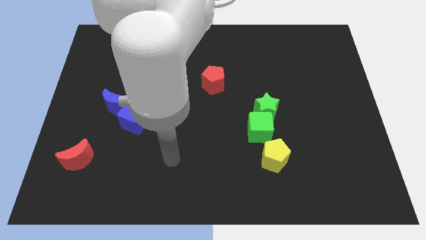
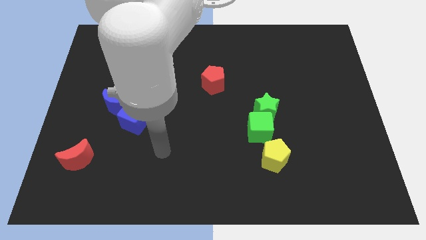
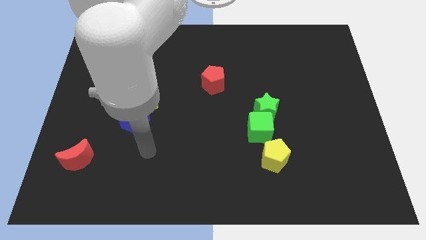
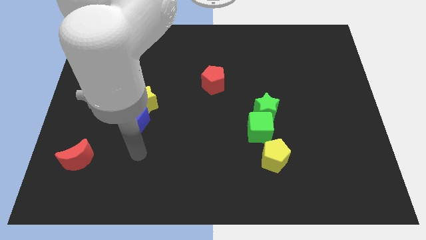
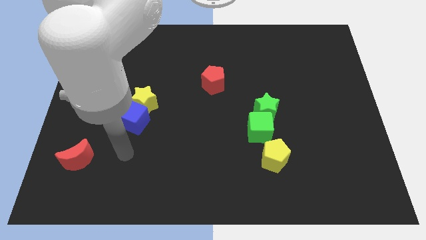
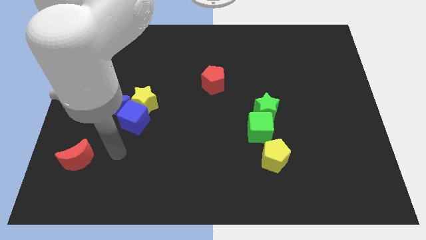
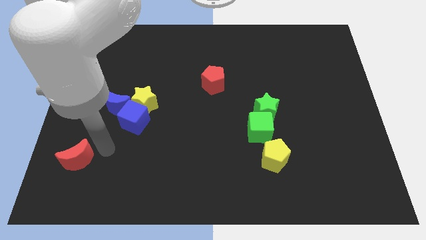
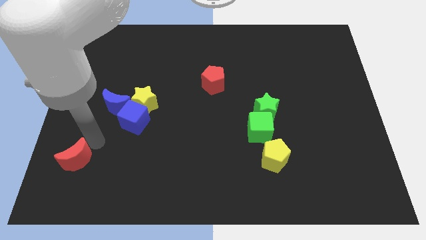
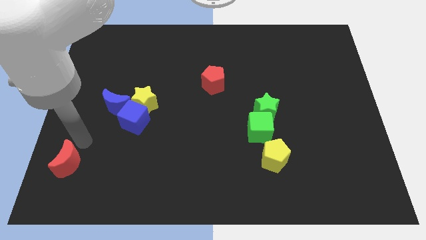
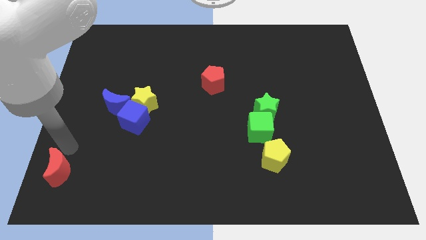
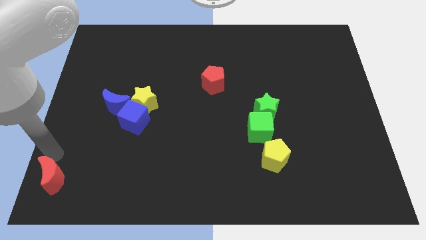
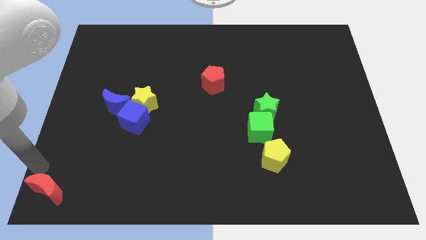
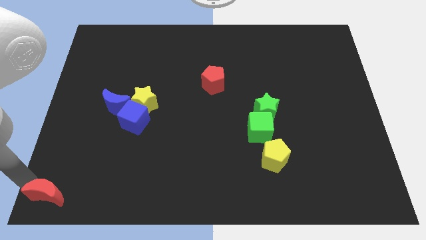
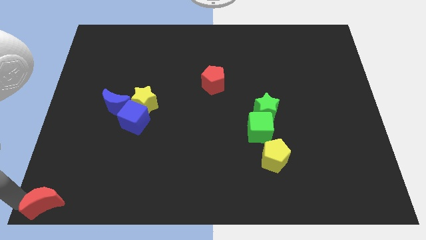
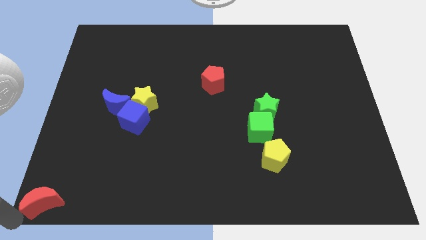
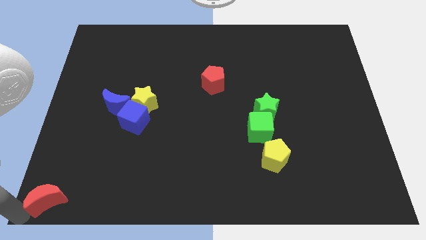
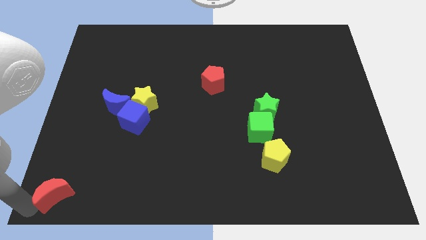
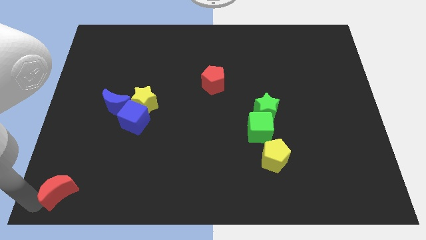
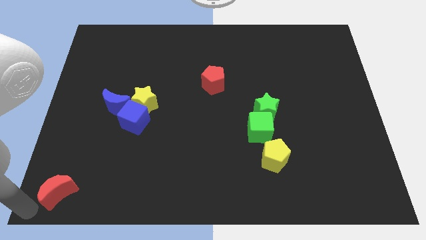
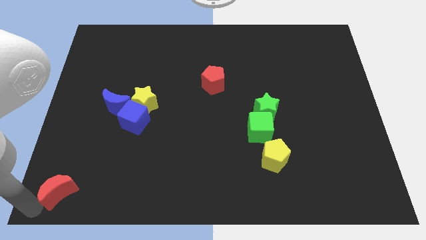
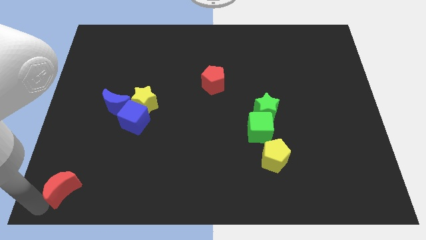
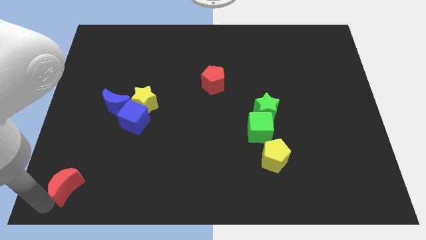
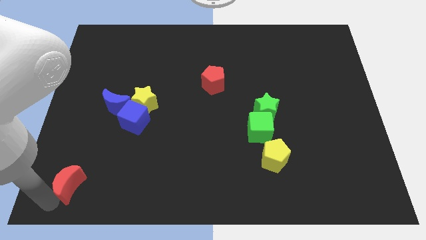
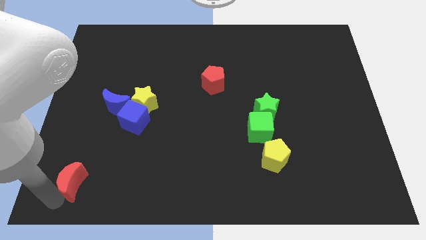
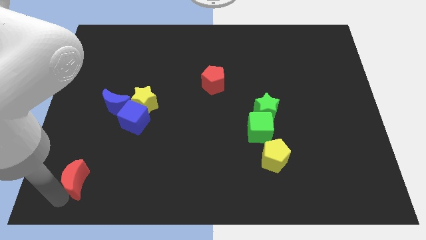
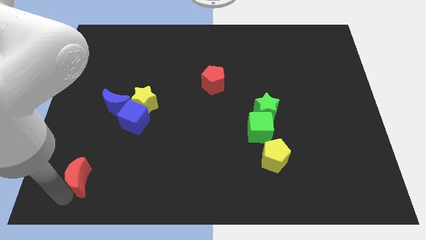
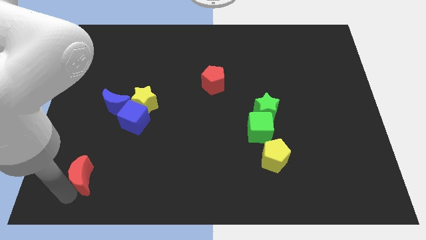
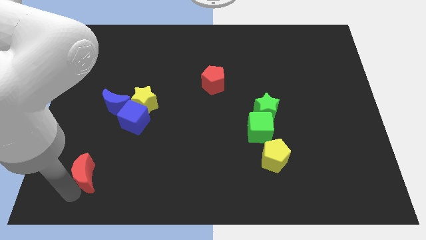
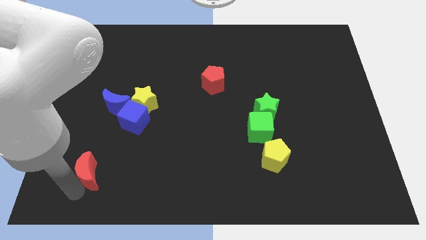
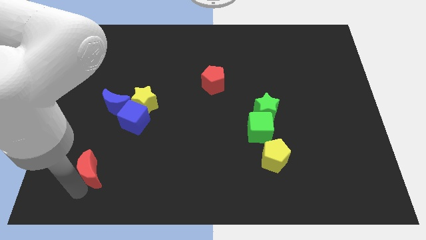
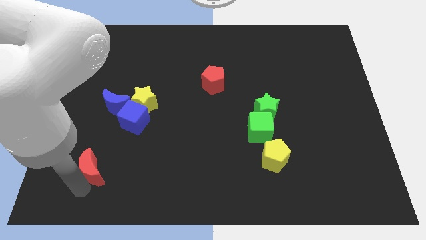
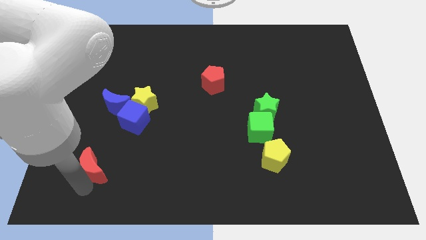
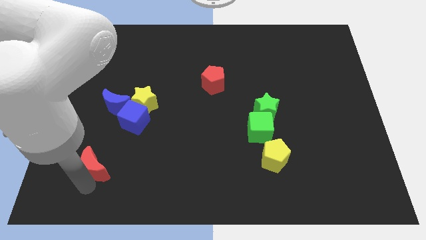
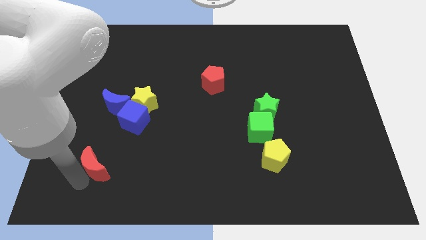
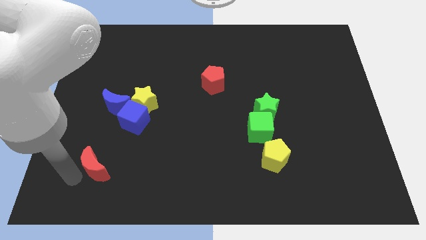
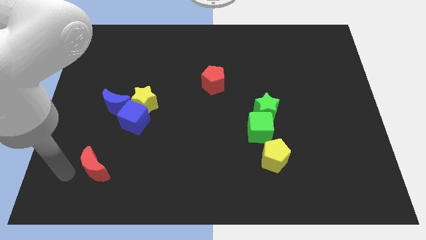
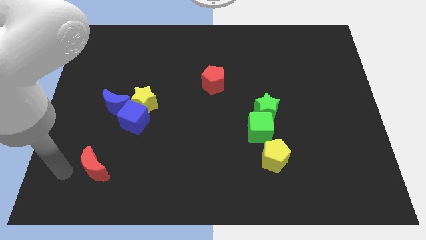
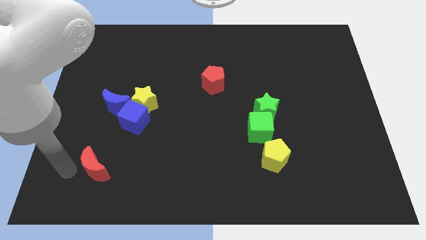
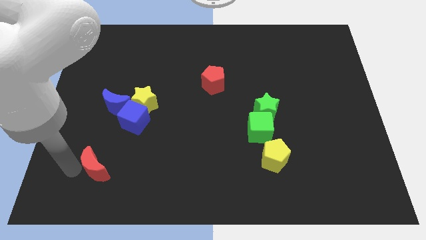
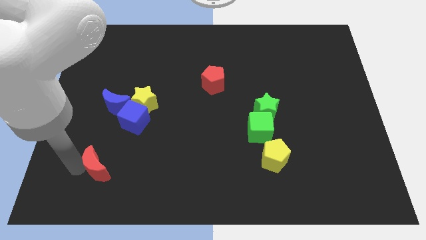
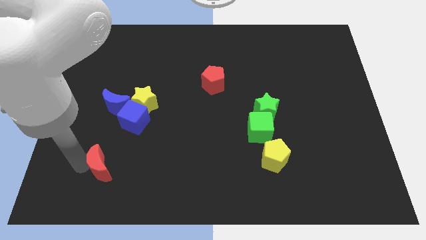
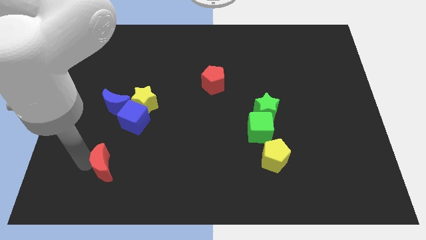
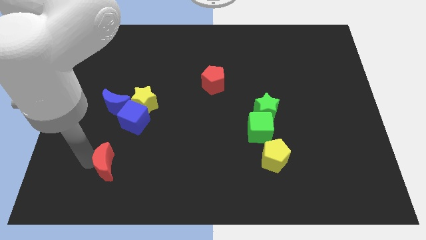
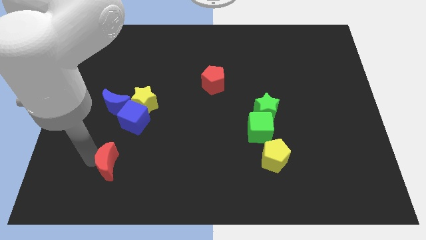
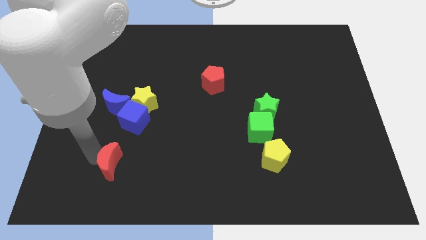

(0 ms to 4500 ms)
slide the red moon right somewhat

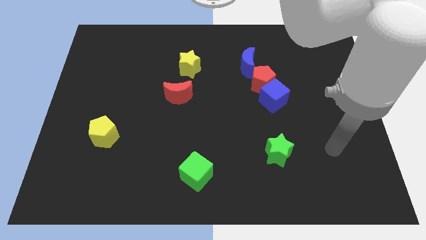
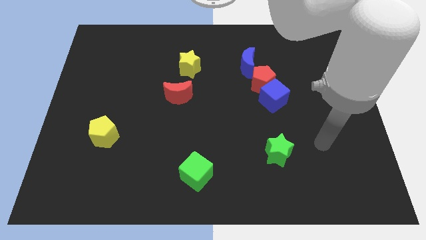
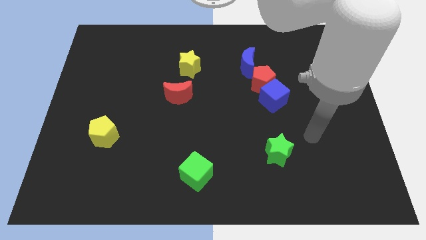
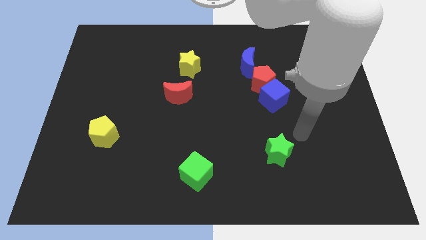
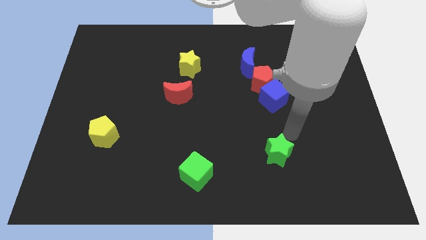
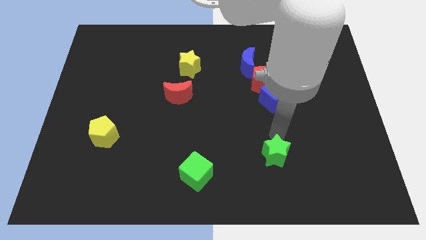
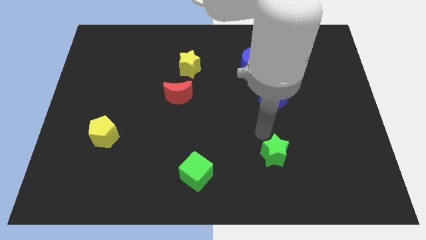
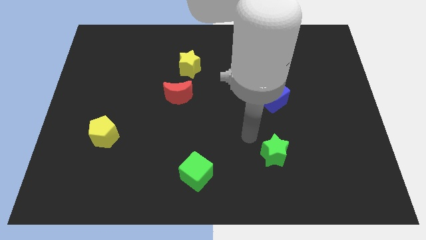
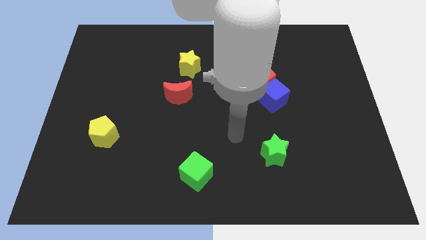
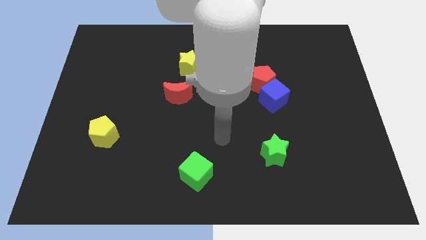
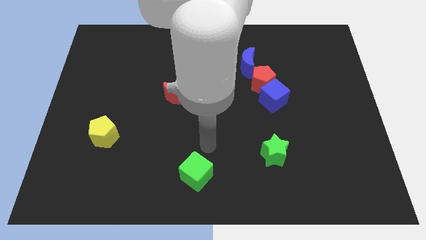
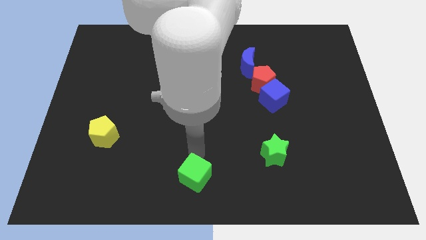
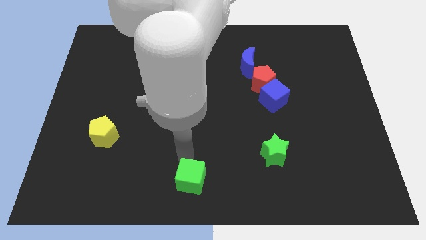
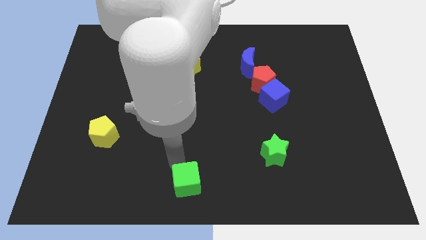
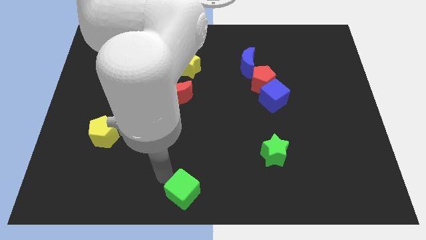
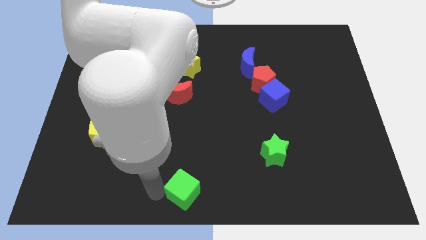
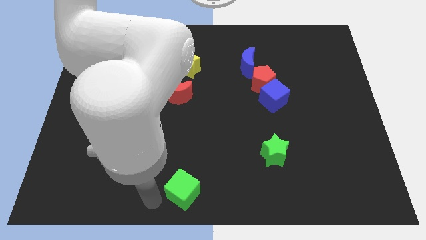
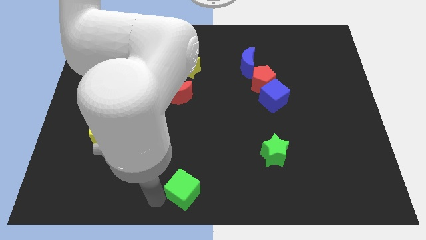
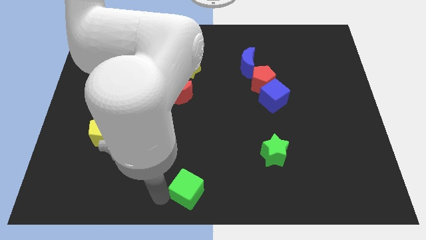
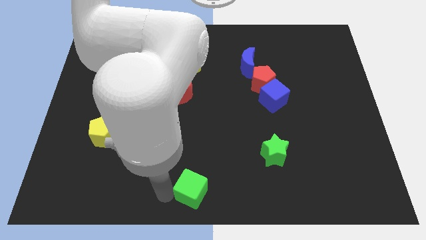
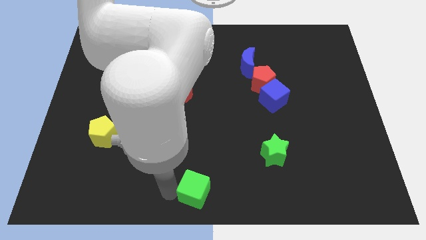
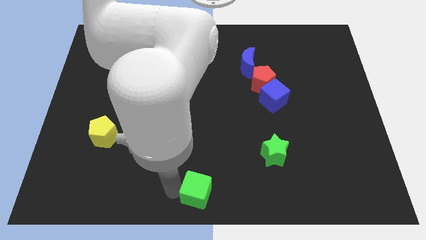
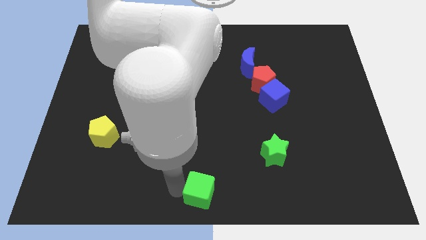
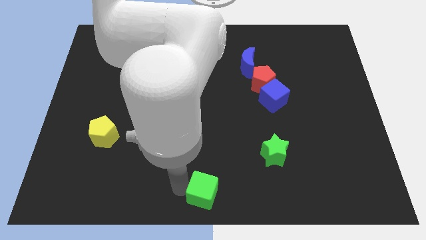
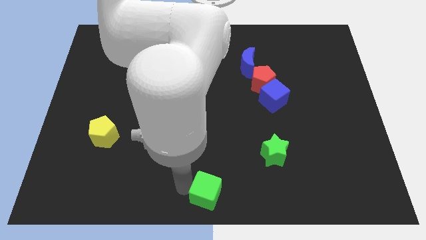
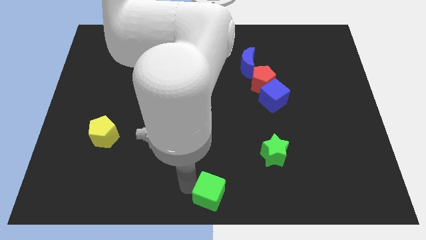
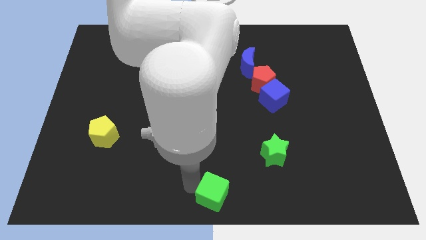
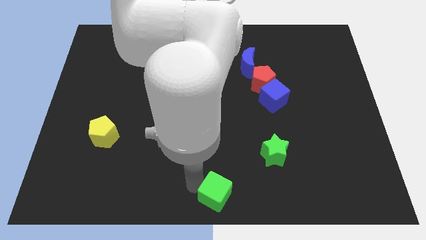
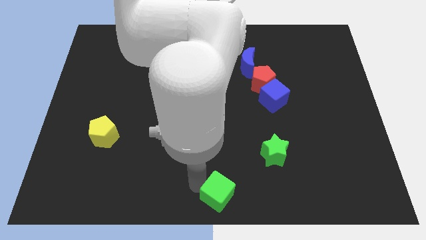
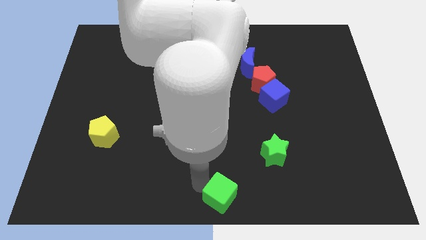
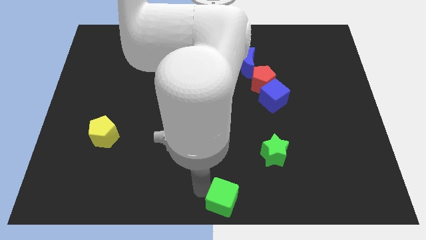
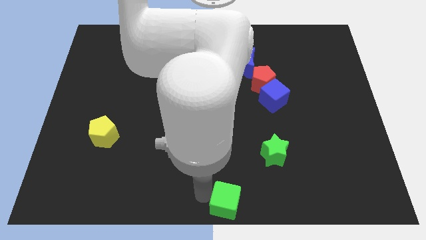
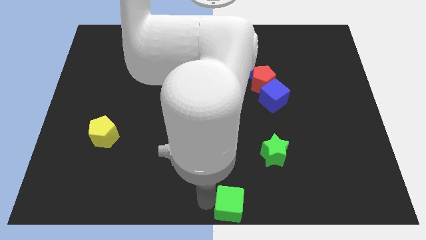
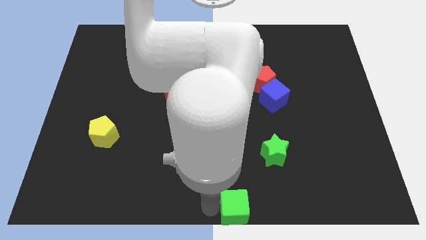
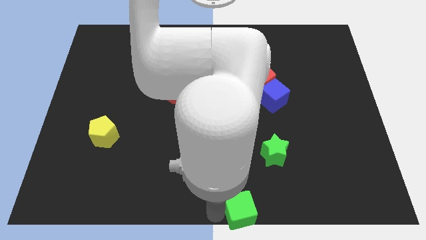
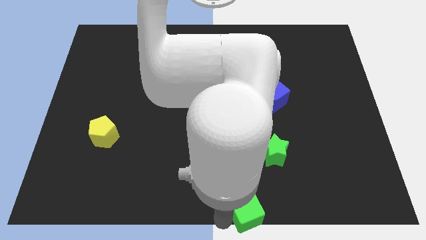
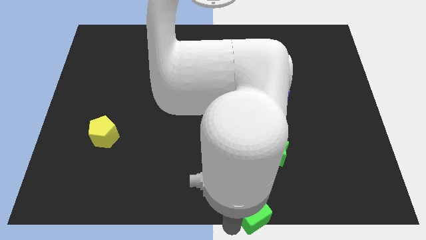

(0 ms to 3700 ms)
slide the green cube slightly to the right
